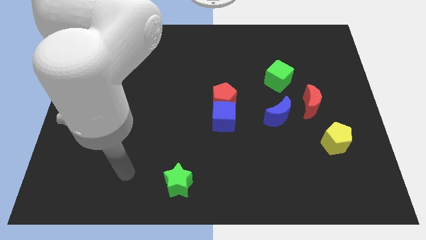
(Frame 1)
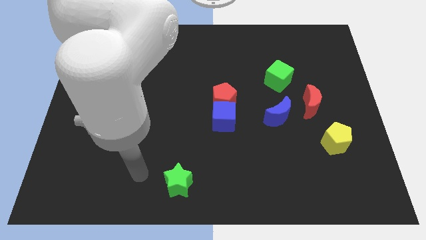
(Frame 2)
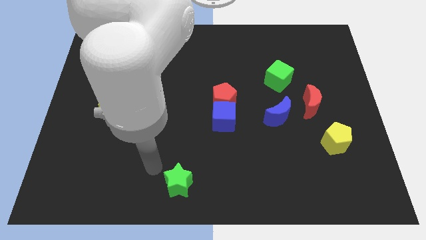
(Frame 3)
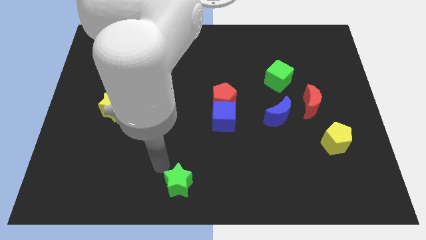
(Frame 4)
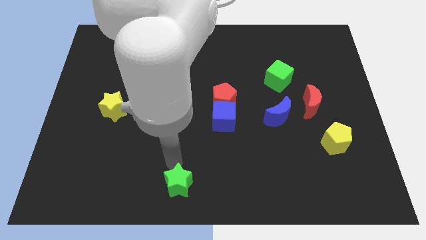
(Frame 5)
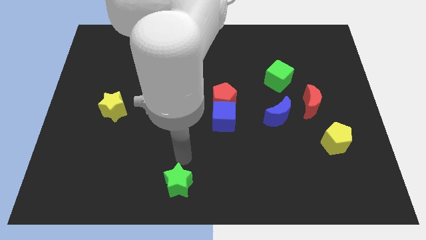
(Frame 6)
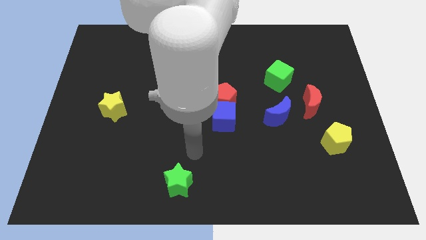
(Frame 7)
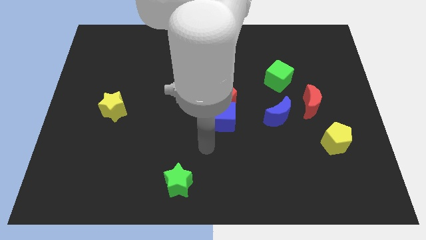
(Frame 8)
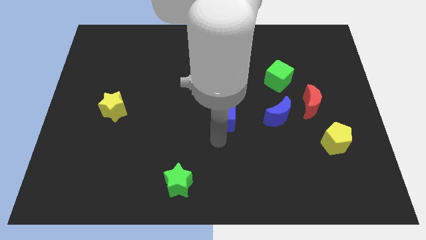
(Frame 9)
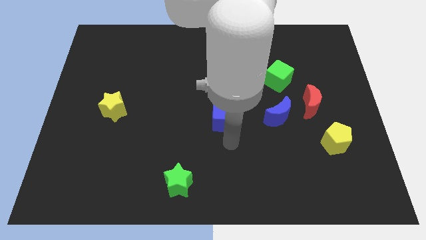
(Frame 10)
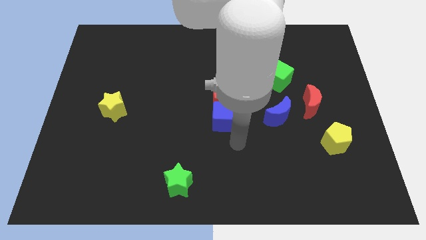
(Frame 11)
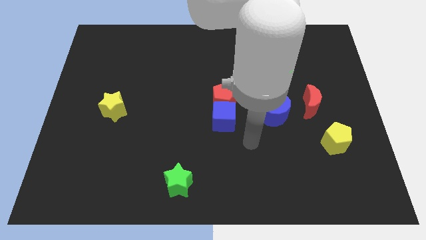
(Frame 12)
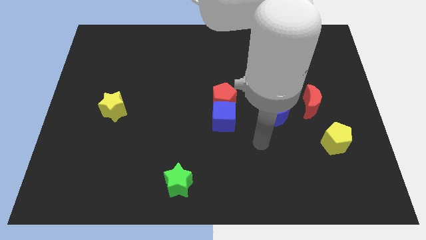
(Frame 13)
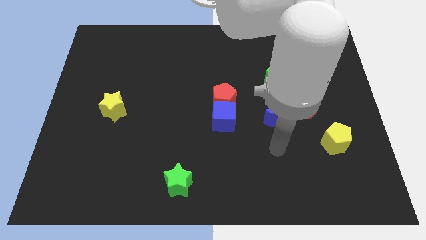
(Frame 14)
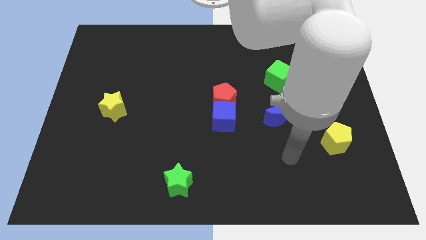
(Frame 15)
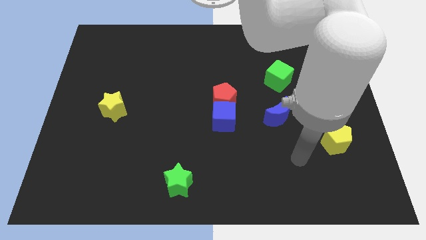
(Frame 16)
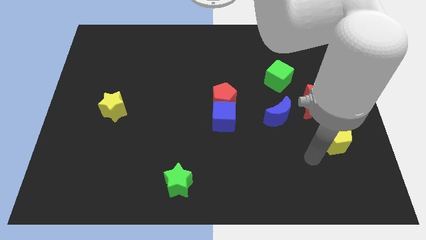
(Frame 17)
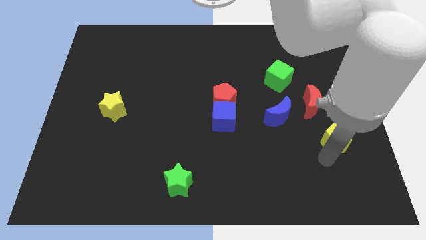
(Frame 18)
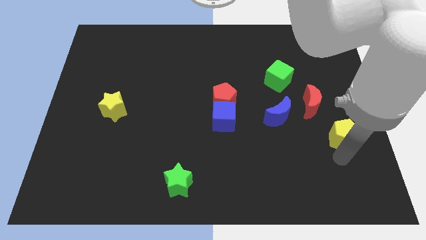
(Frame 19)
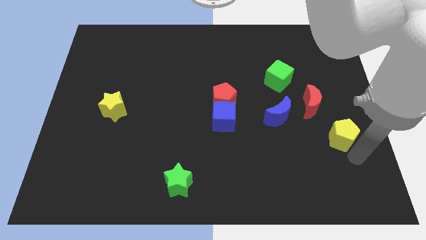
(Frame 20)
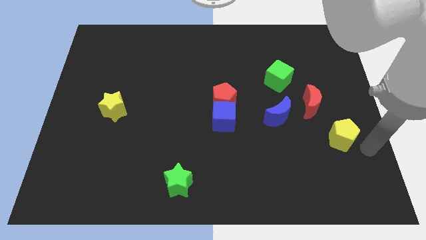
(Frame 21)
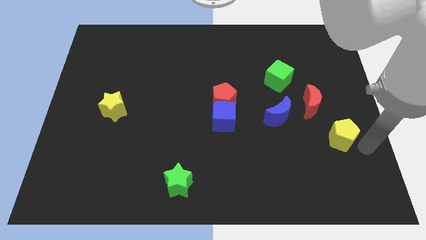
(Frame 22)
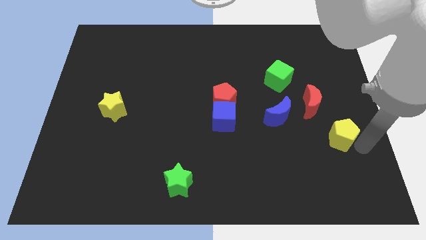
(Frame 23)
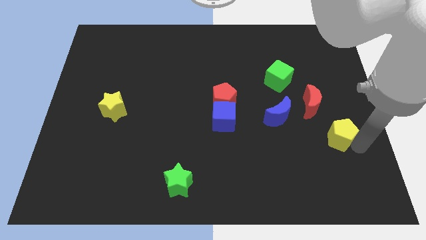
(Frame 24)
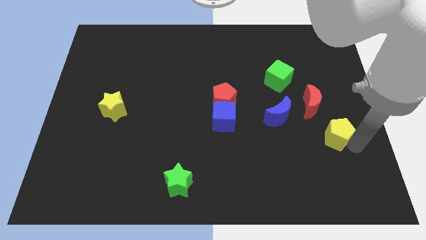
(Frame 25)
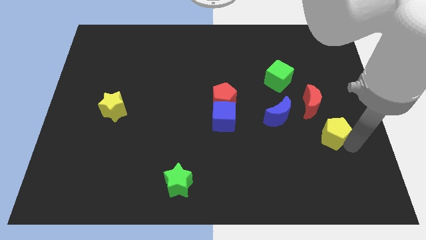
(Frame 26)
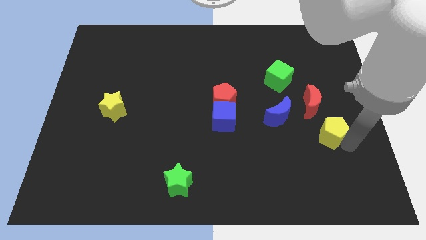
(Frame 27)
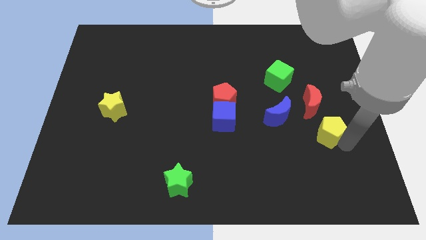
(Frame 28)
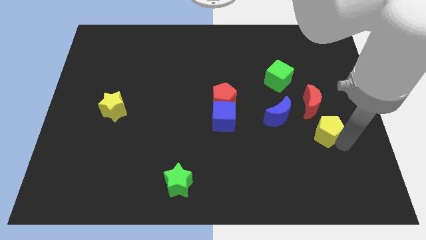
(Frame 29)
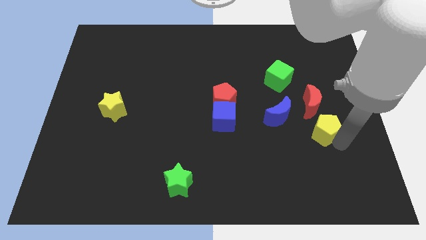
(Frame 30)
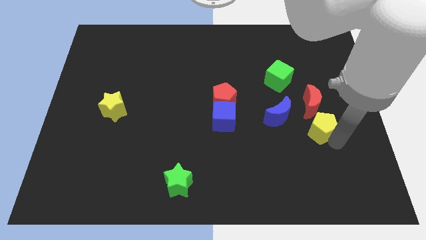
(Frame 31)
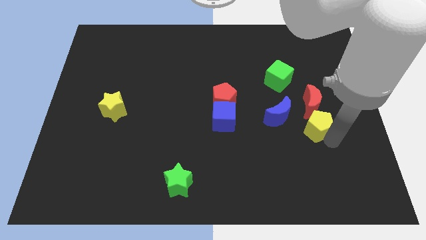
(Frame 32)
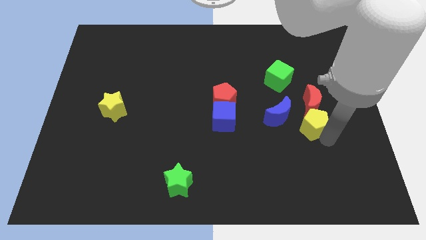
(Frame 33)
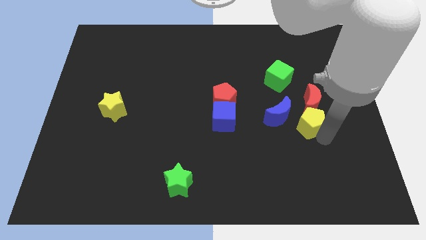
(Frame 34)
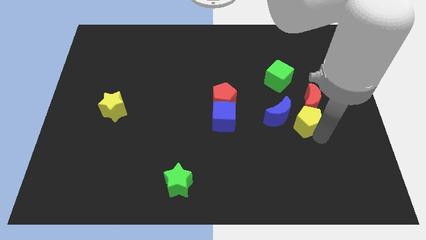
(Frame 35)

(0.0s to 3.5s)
slightly push the yellow pentagon up and to the left diagonally

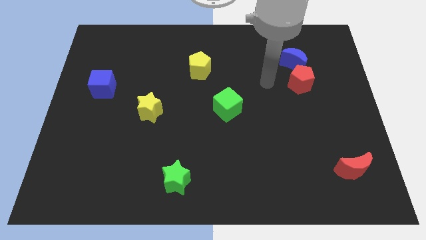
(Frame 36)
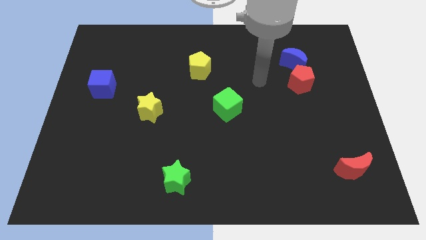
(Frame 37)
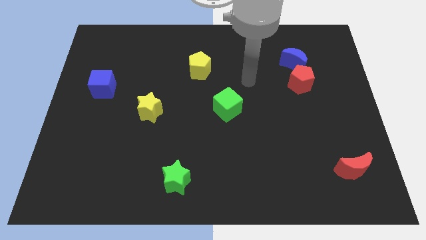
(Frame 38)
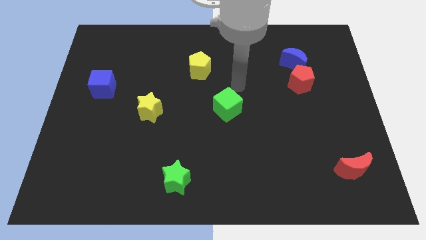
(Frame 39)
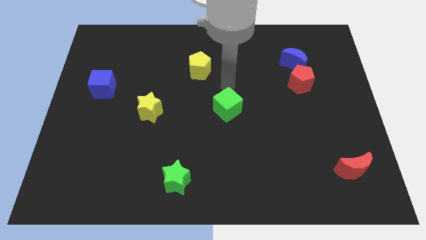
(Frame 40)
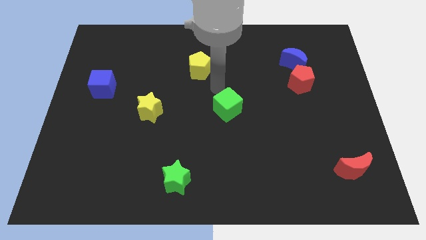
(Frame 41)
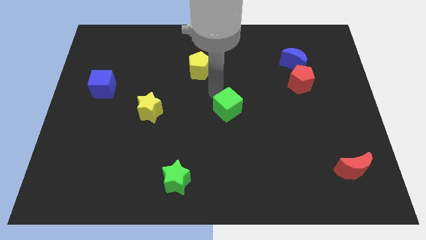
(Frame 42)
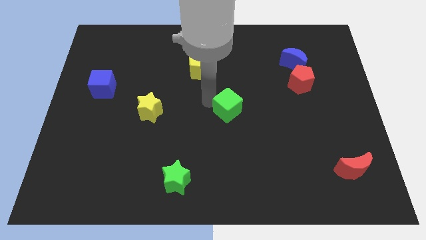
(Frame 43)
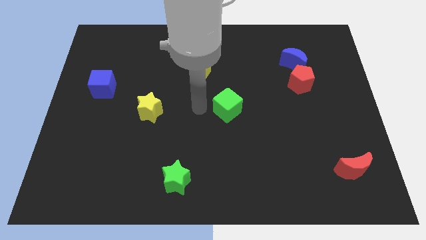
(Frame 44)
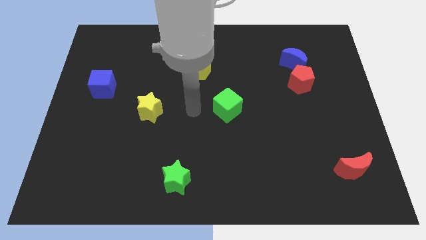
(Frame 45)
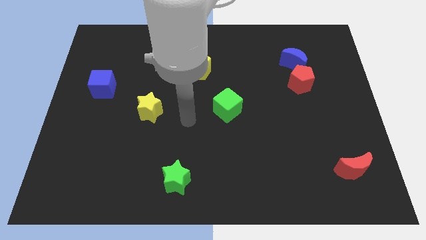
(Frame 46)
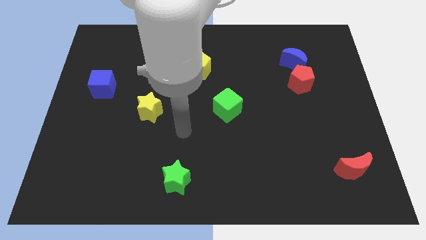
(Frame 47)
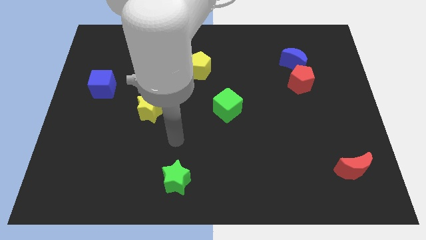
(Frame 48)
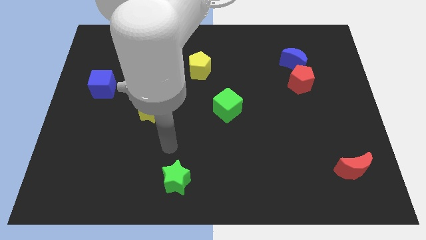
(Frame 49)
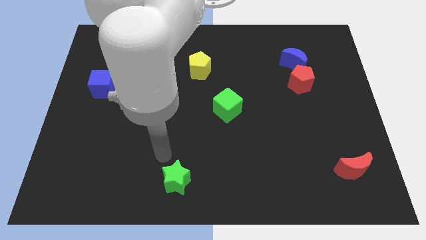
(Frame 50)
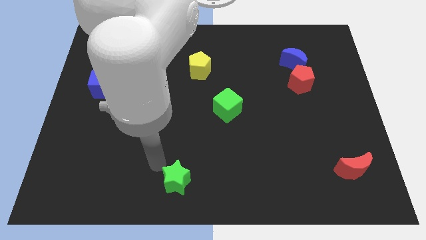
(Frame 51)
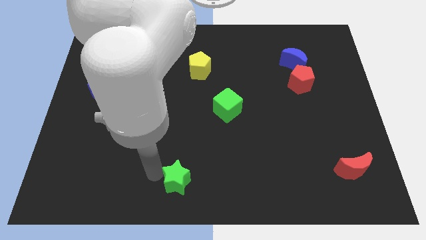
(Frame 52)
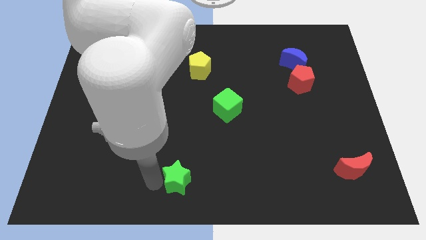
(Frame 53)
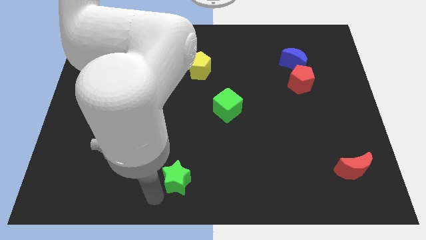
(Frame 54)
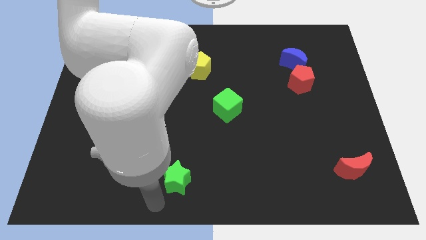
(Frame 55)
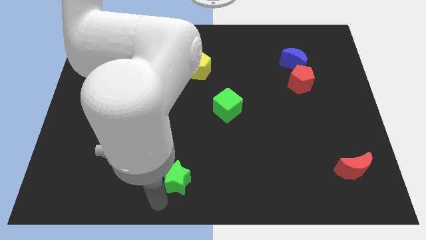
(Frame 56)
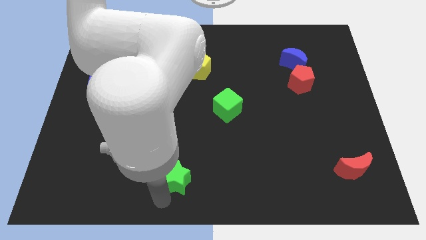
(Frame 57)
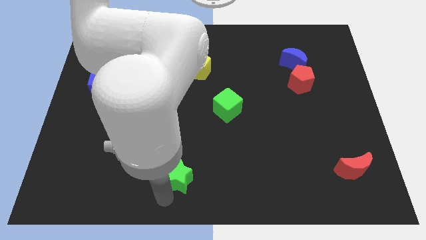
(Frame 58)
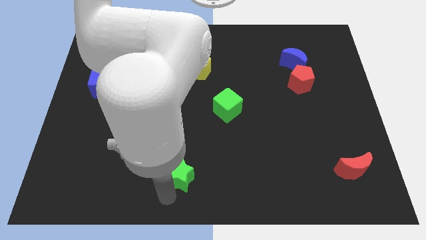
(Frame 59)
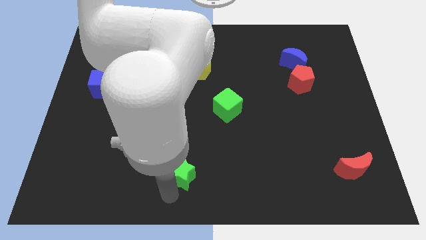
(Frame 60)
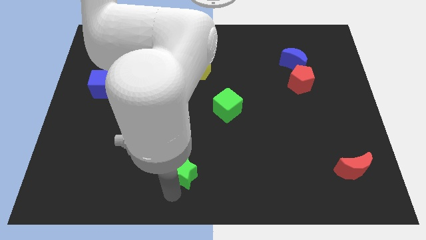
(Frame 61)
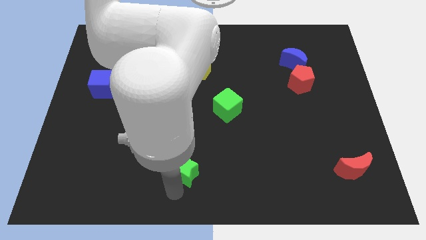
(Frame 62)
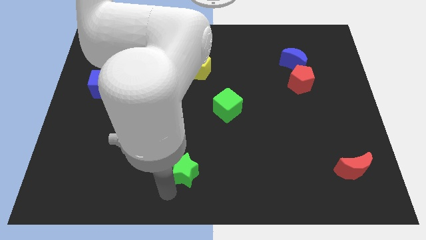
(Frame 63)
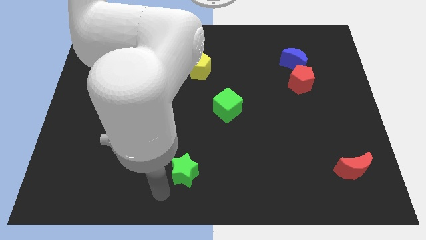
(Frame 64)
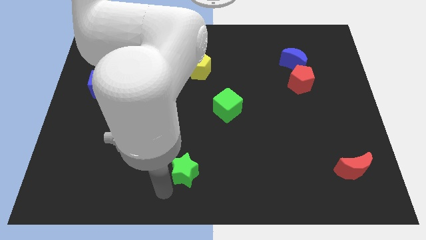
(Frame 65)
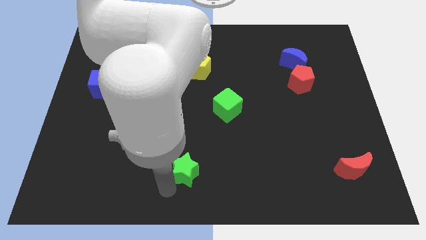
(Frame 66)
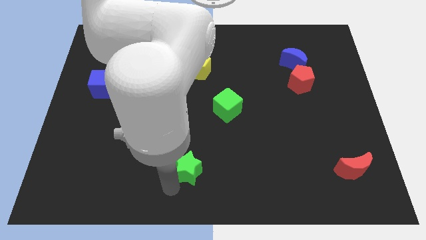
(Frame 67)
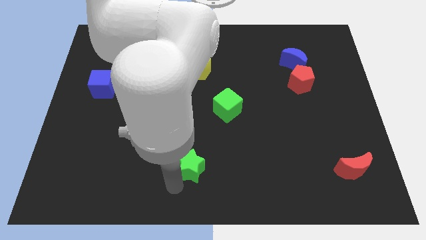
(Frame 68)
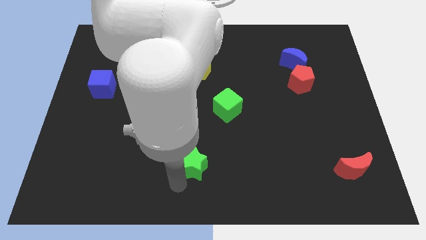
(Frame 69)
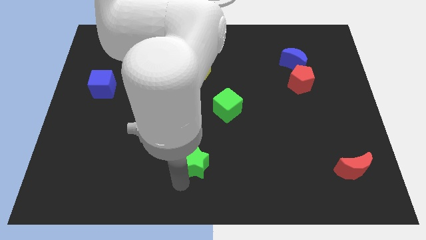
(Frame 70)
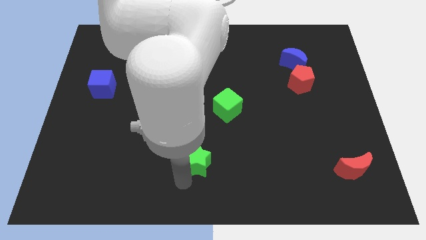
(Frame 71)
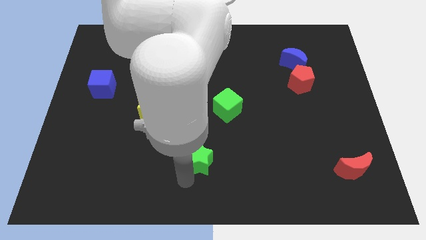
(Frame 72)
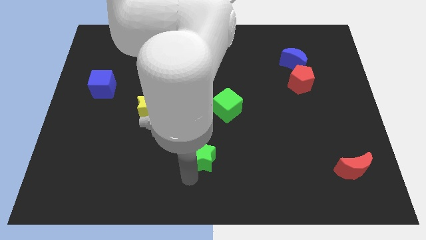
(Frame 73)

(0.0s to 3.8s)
slightly slide the green star up and to the right

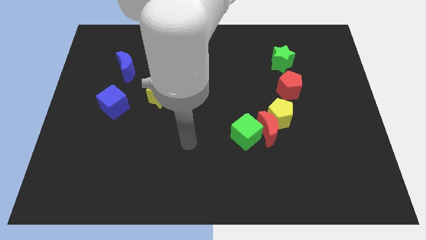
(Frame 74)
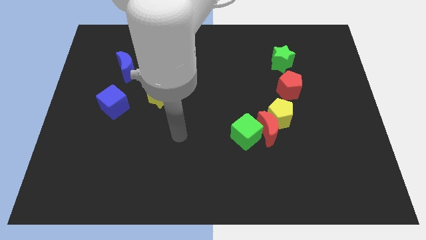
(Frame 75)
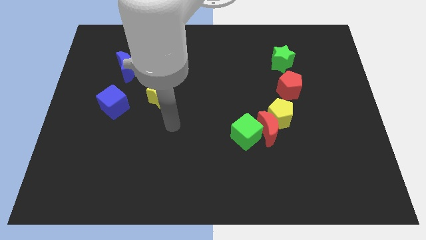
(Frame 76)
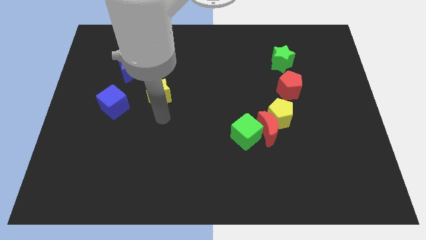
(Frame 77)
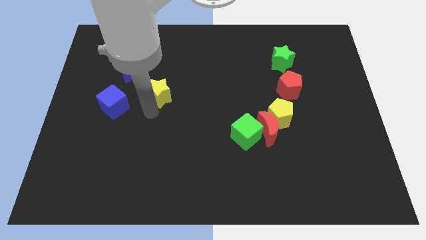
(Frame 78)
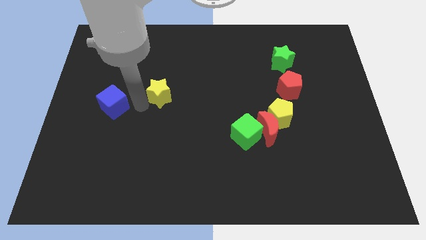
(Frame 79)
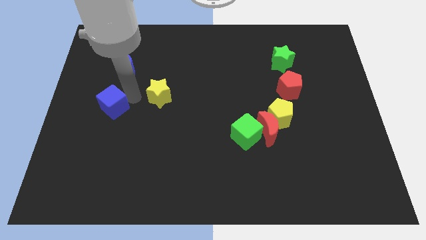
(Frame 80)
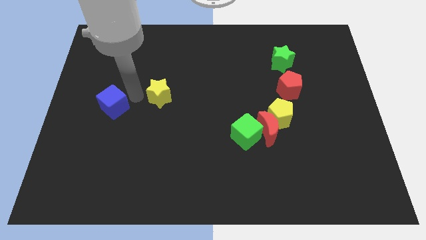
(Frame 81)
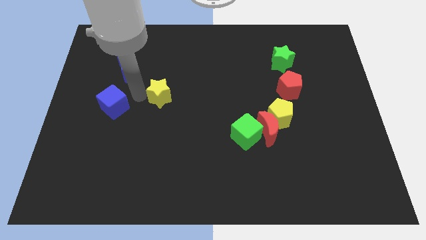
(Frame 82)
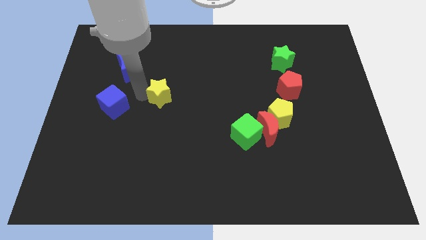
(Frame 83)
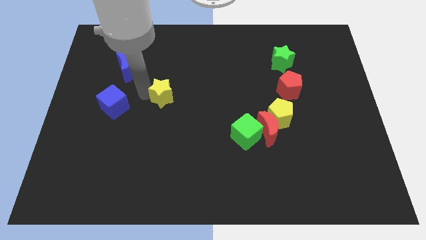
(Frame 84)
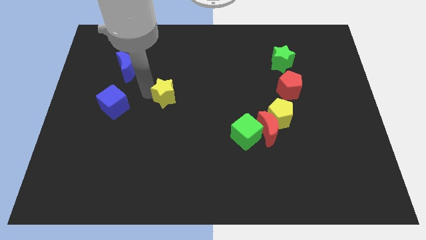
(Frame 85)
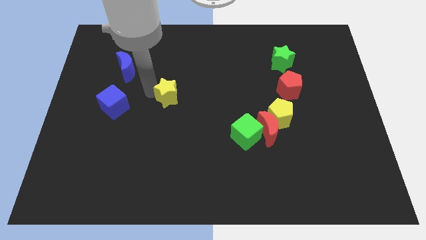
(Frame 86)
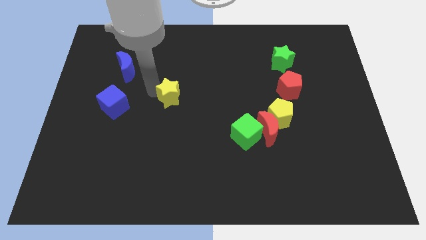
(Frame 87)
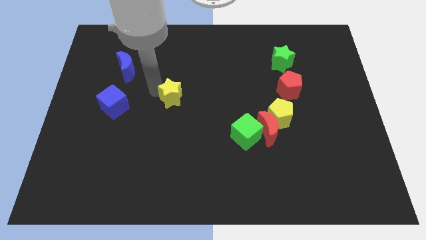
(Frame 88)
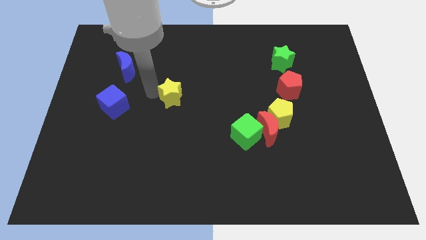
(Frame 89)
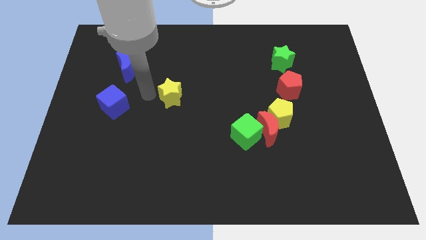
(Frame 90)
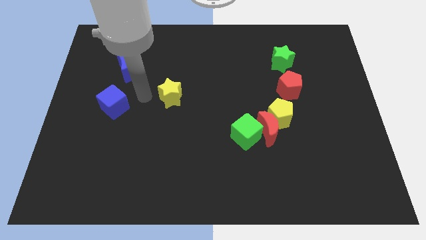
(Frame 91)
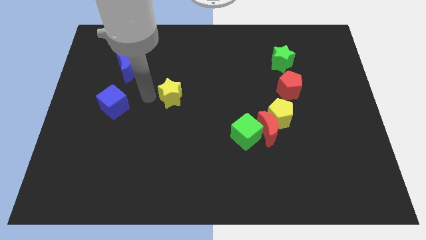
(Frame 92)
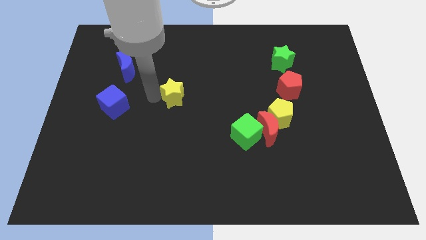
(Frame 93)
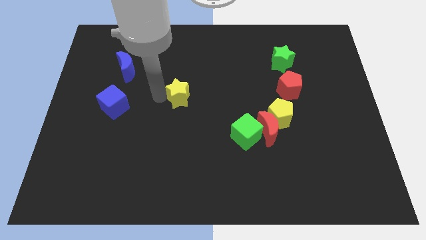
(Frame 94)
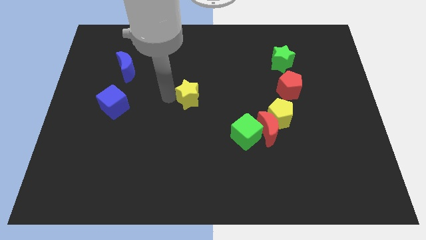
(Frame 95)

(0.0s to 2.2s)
slide the yellow star right a little bit
